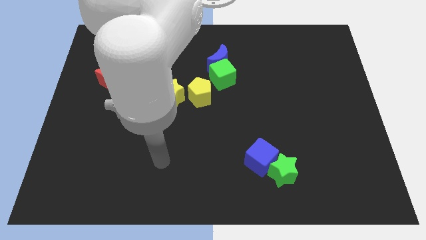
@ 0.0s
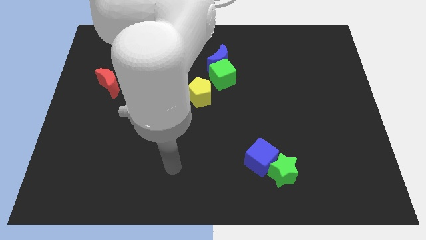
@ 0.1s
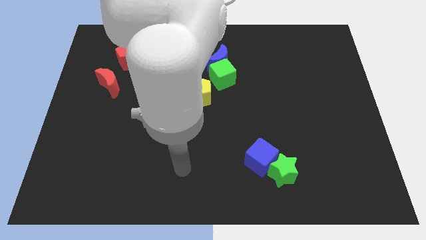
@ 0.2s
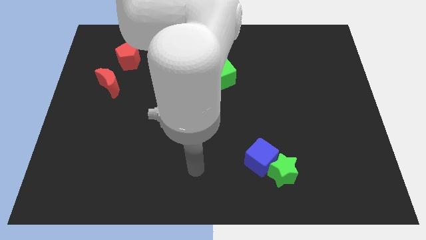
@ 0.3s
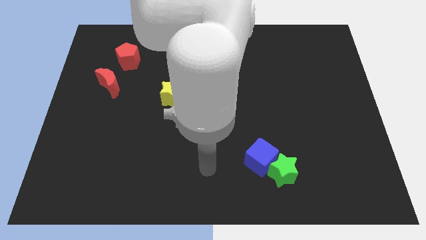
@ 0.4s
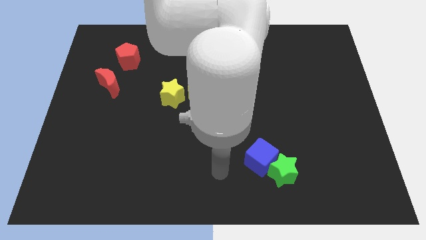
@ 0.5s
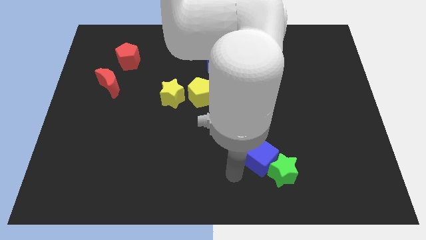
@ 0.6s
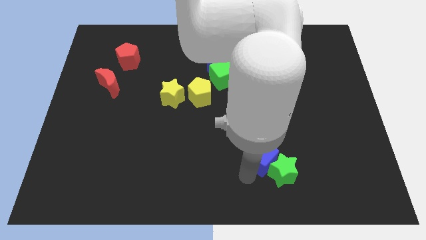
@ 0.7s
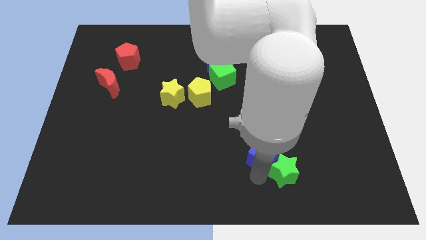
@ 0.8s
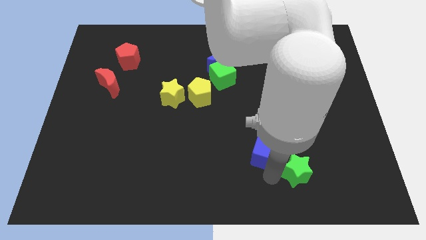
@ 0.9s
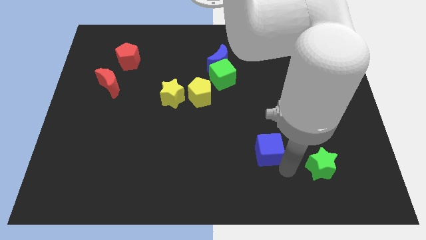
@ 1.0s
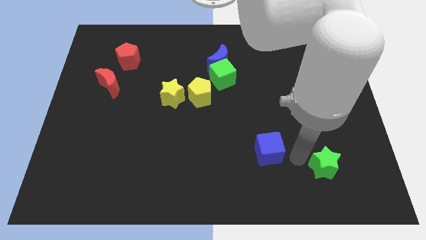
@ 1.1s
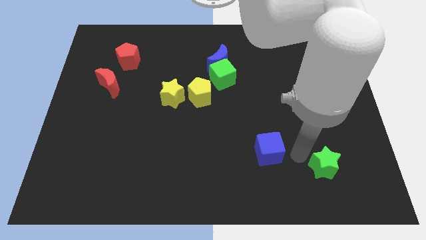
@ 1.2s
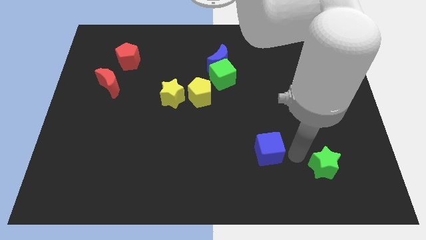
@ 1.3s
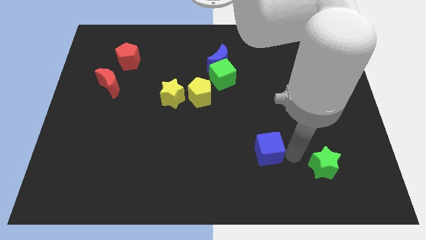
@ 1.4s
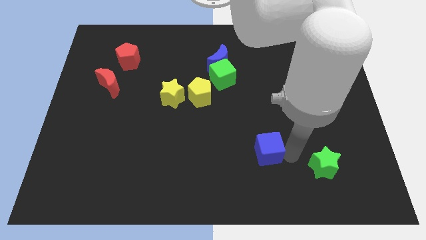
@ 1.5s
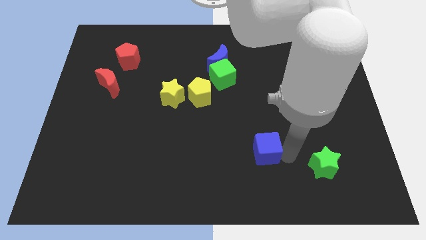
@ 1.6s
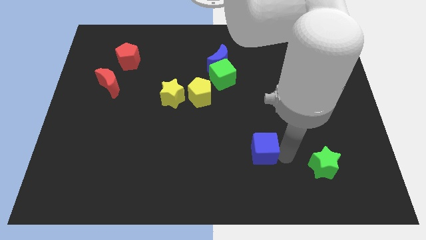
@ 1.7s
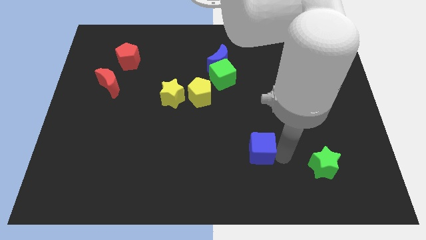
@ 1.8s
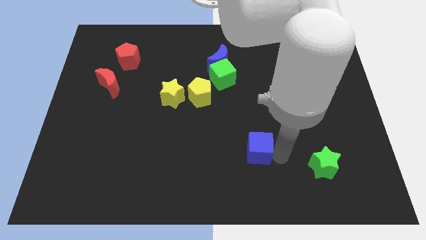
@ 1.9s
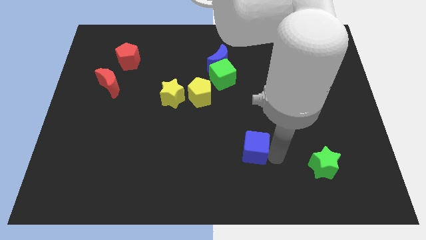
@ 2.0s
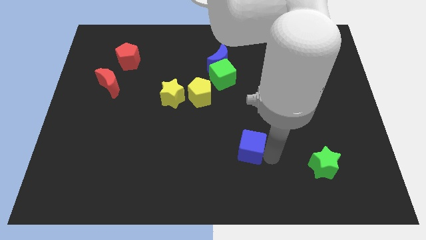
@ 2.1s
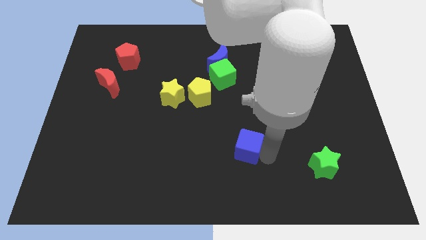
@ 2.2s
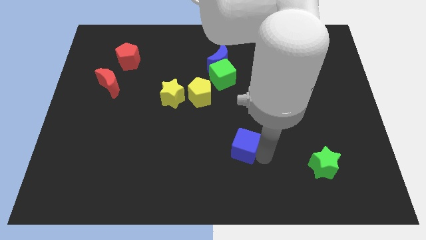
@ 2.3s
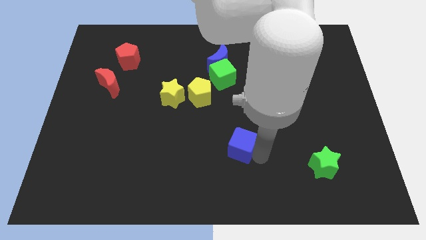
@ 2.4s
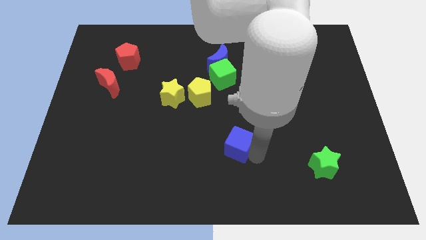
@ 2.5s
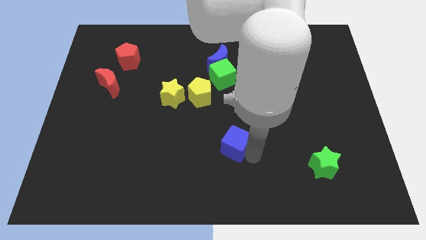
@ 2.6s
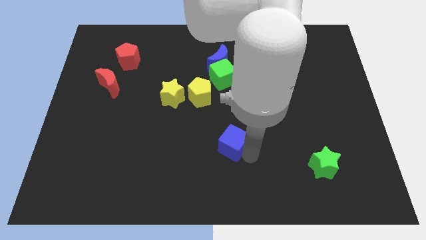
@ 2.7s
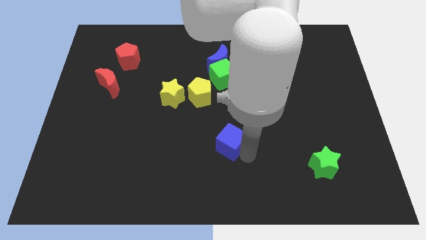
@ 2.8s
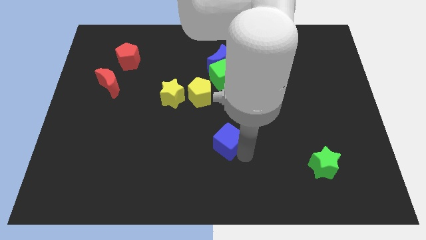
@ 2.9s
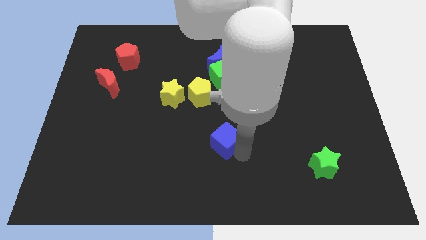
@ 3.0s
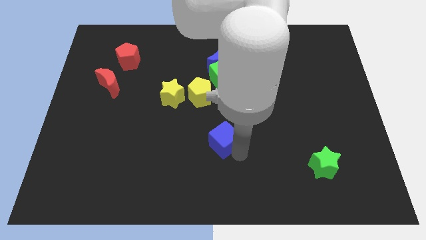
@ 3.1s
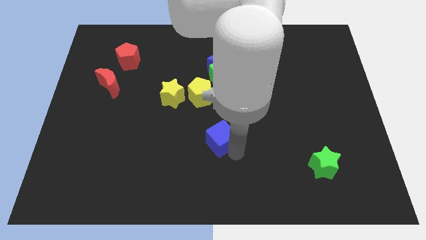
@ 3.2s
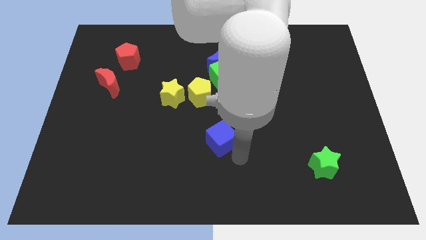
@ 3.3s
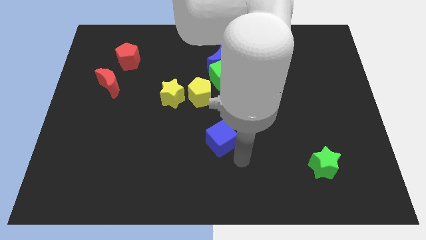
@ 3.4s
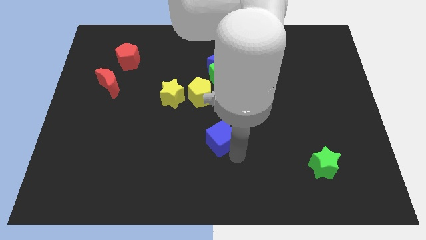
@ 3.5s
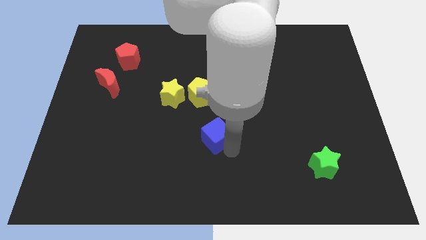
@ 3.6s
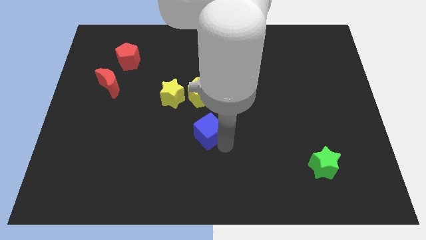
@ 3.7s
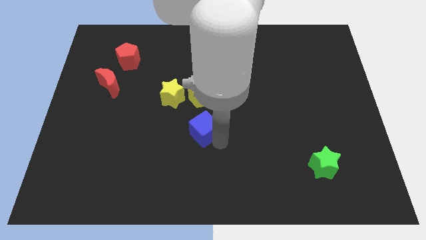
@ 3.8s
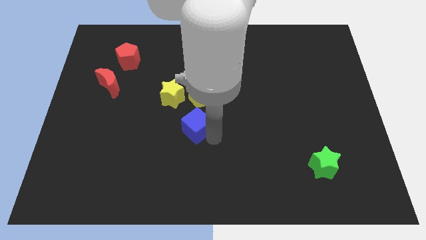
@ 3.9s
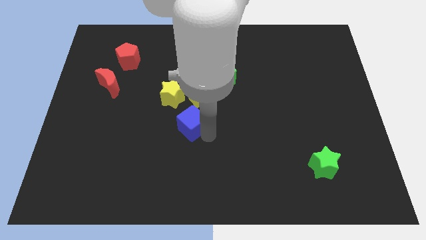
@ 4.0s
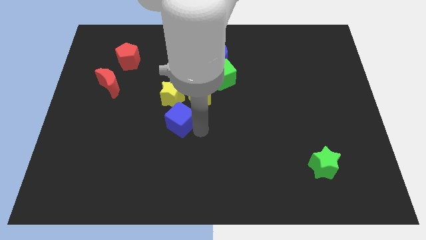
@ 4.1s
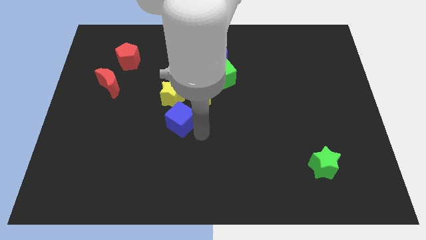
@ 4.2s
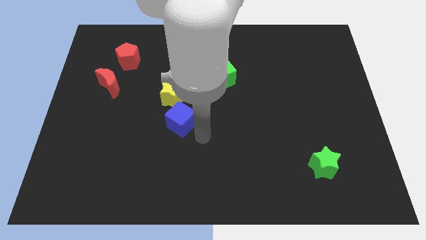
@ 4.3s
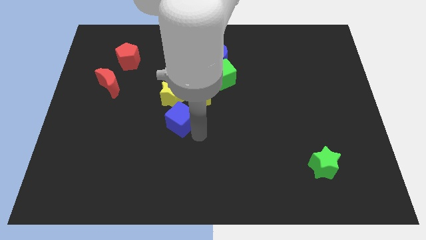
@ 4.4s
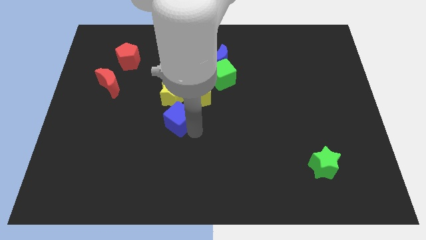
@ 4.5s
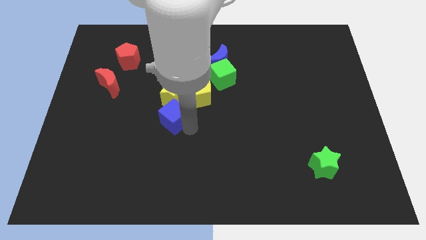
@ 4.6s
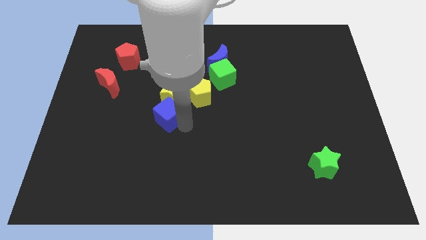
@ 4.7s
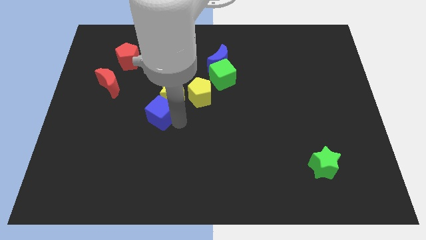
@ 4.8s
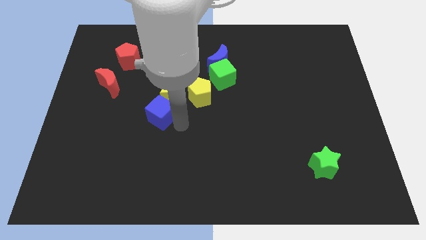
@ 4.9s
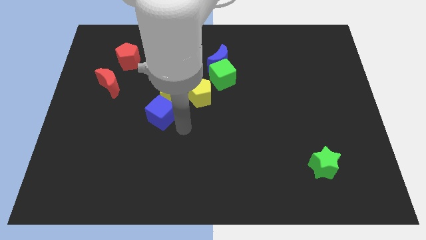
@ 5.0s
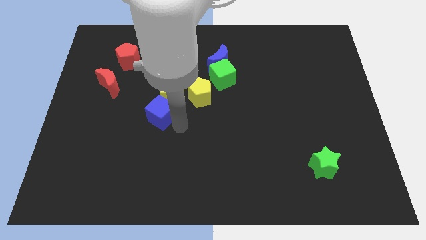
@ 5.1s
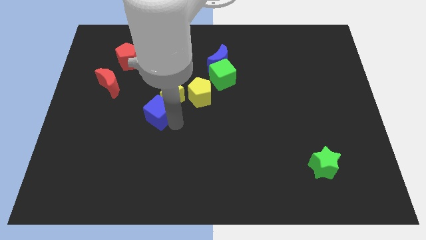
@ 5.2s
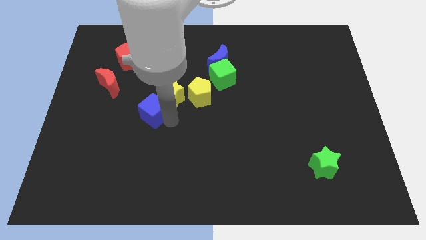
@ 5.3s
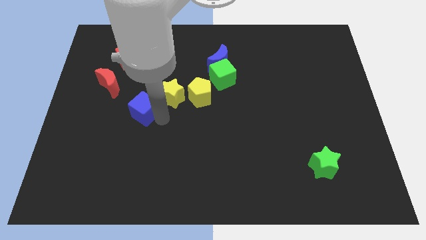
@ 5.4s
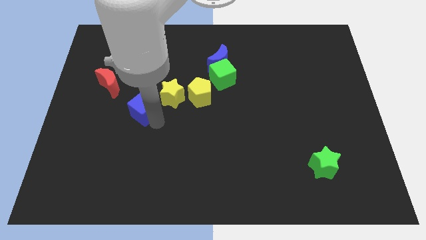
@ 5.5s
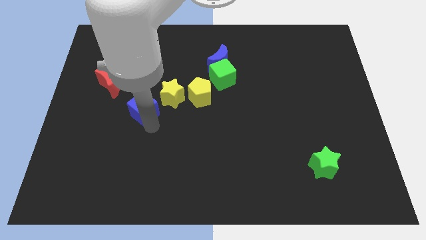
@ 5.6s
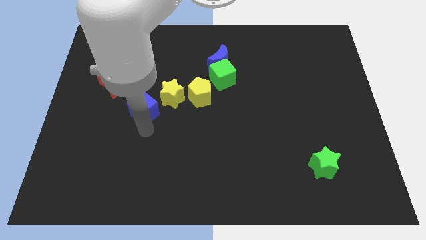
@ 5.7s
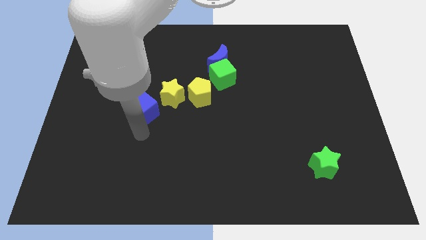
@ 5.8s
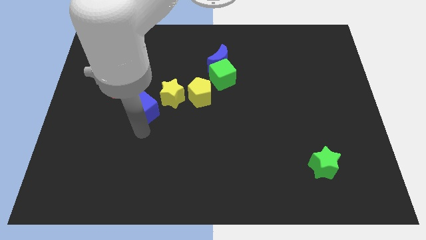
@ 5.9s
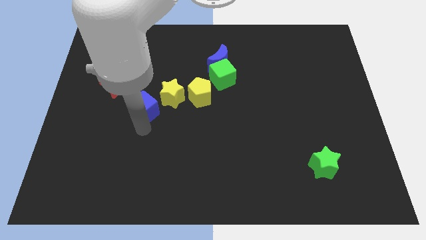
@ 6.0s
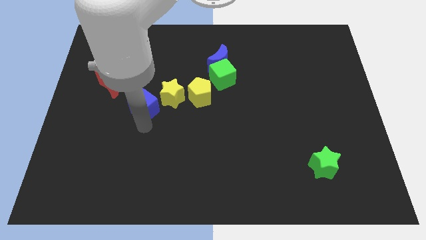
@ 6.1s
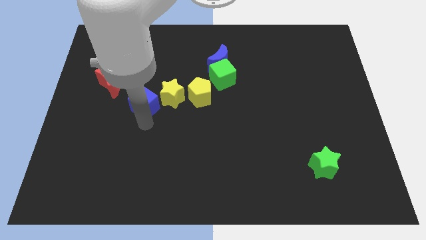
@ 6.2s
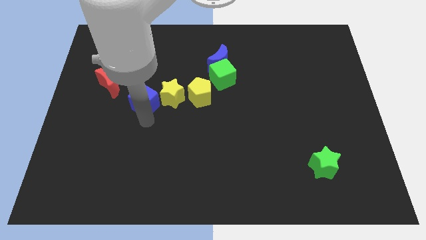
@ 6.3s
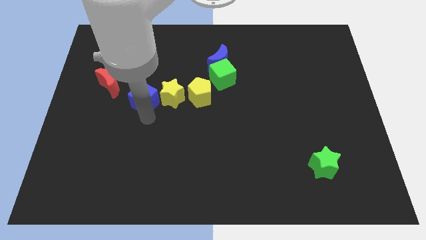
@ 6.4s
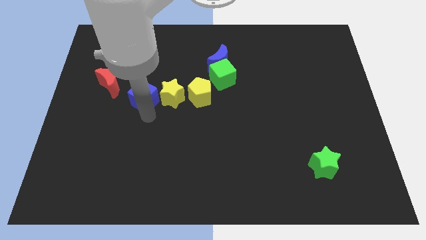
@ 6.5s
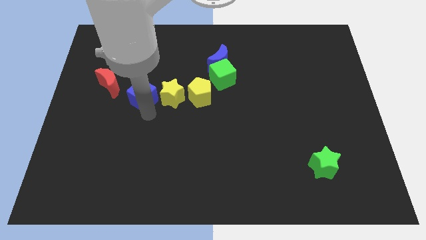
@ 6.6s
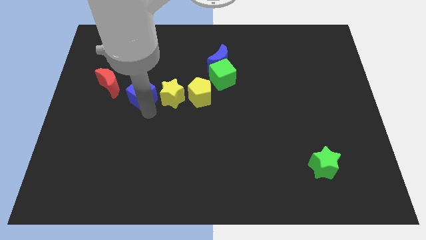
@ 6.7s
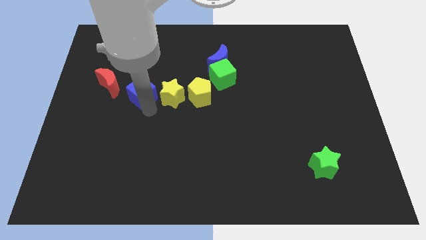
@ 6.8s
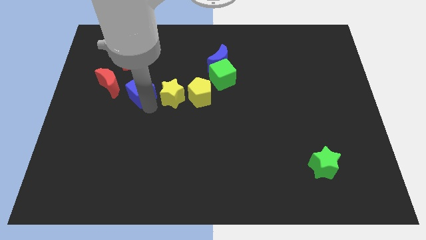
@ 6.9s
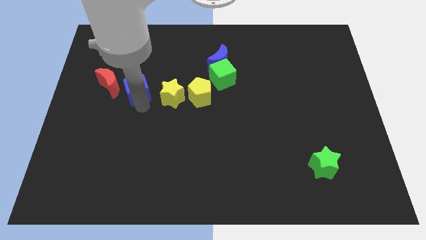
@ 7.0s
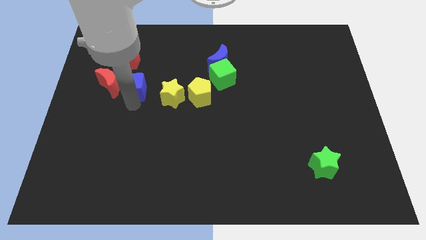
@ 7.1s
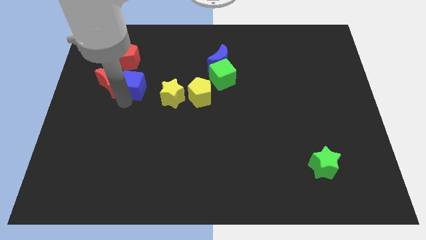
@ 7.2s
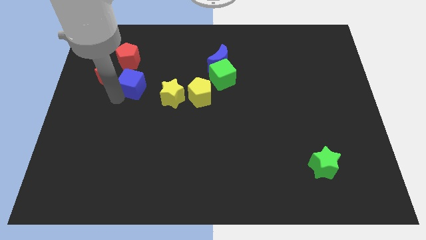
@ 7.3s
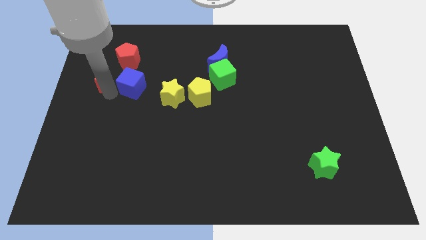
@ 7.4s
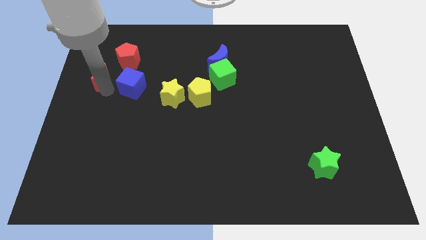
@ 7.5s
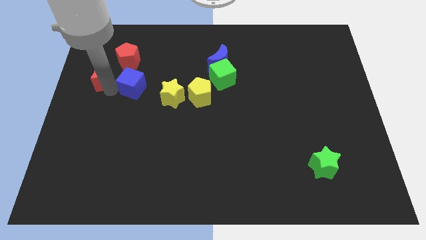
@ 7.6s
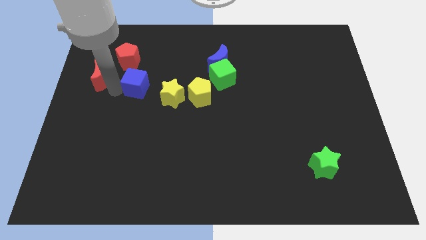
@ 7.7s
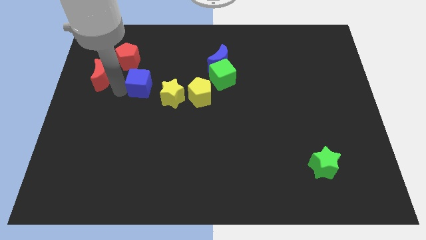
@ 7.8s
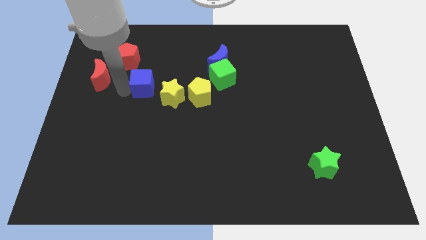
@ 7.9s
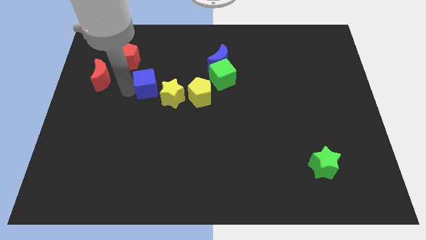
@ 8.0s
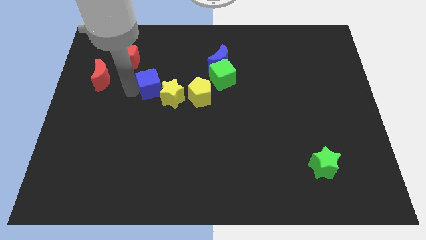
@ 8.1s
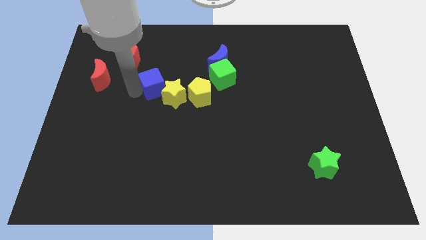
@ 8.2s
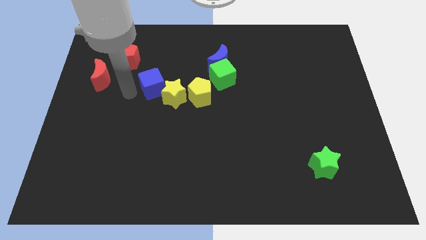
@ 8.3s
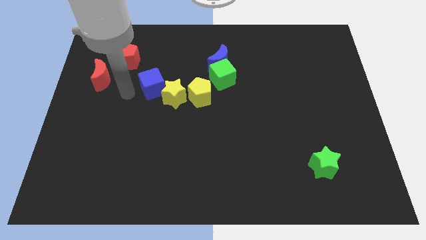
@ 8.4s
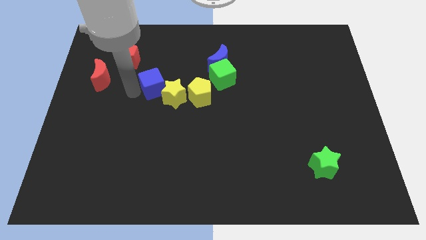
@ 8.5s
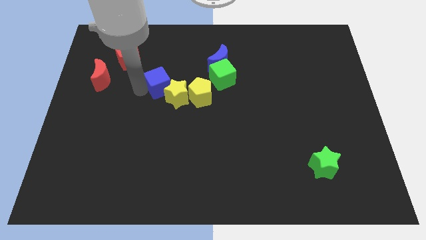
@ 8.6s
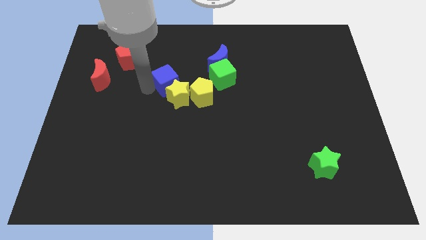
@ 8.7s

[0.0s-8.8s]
push the blue cube to the top left side of the yellow pentagon
